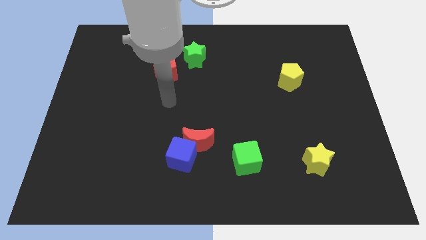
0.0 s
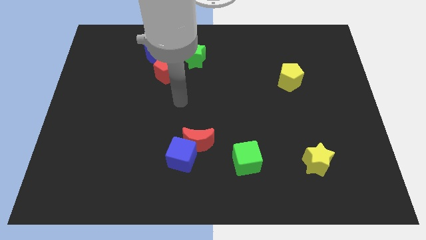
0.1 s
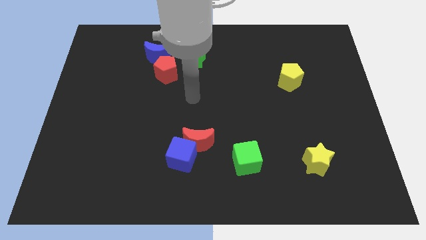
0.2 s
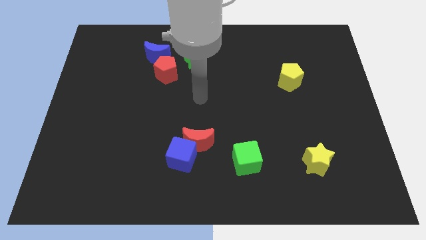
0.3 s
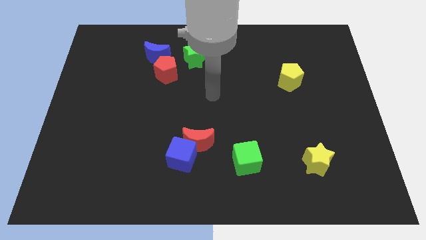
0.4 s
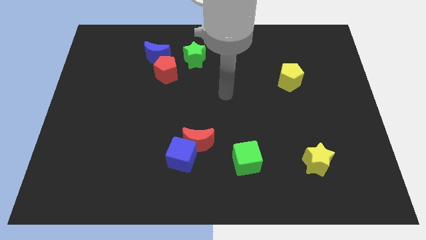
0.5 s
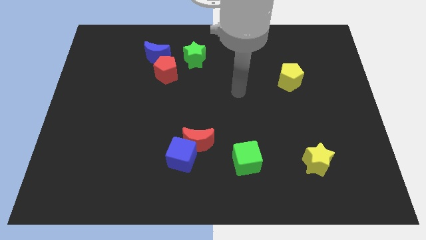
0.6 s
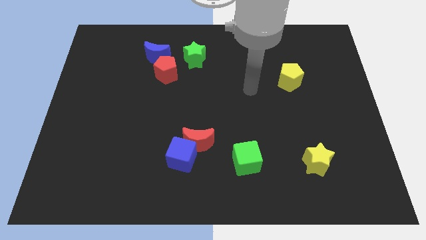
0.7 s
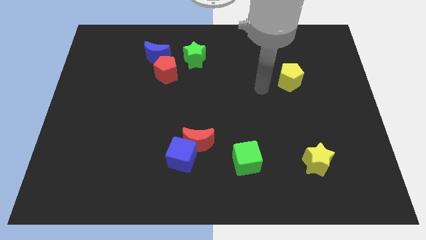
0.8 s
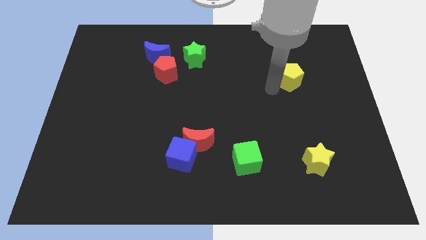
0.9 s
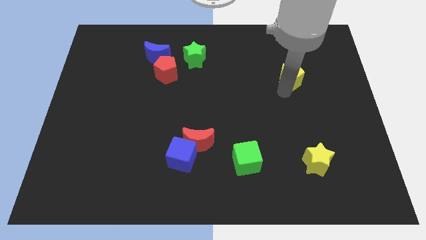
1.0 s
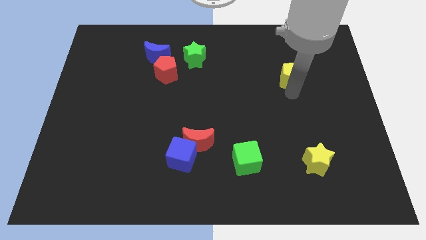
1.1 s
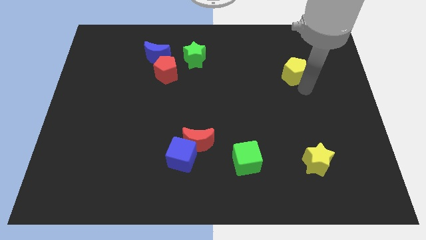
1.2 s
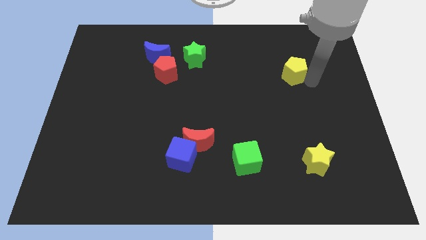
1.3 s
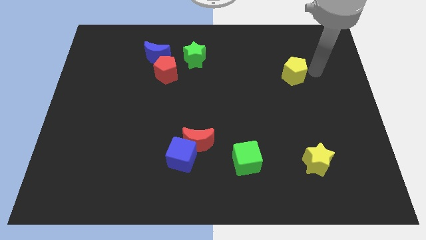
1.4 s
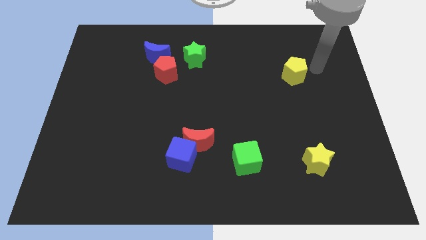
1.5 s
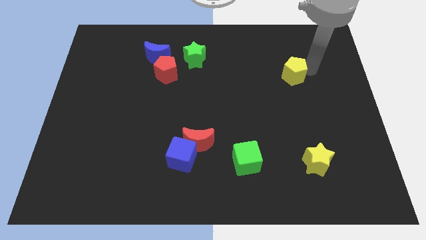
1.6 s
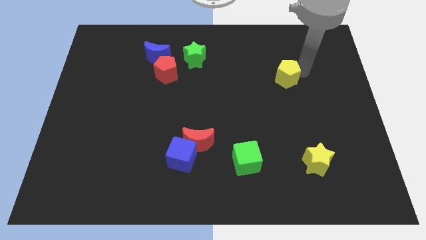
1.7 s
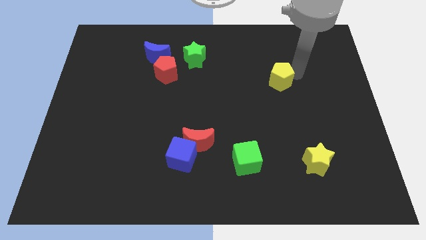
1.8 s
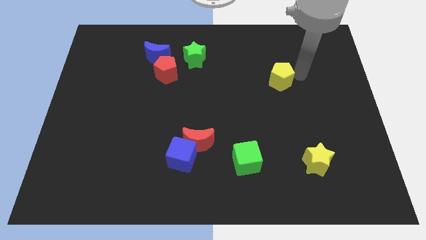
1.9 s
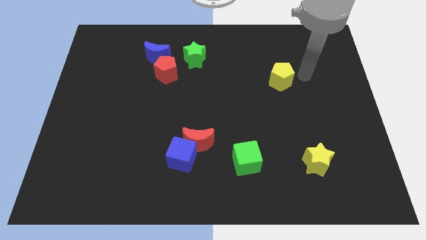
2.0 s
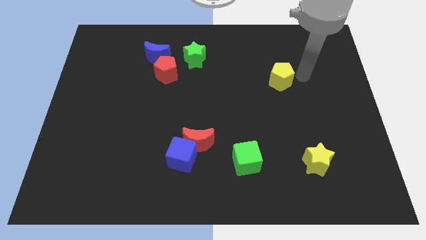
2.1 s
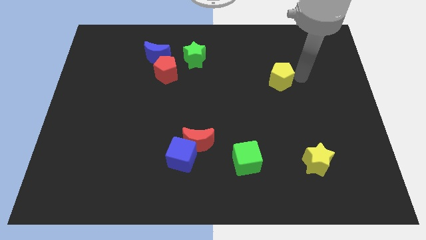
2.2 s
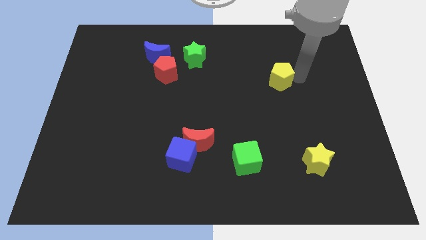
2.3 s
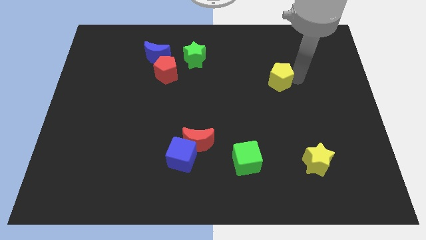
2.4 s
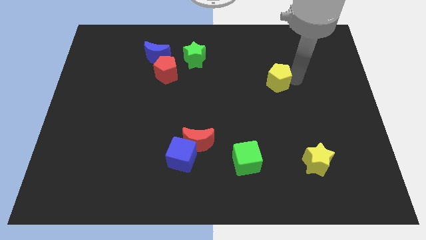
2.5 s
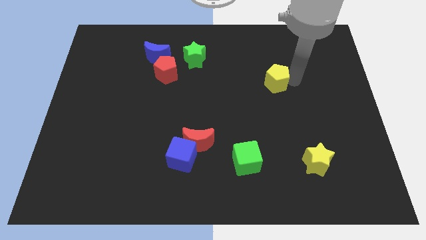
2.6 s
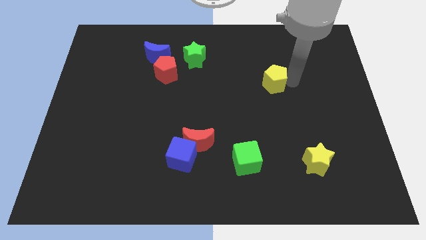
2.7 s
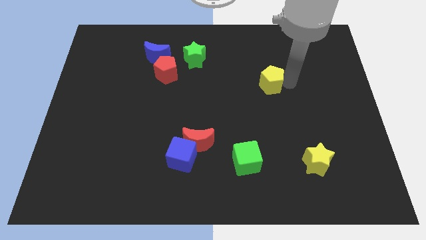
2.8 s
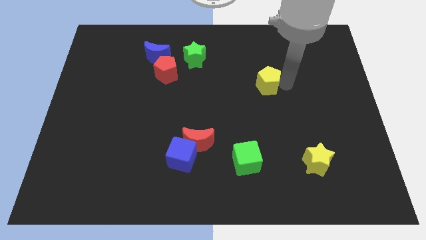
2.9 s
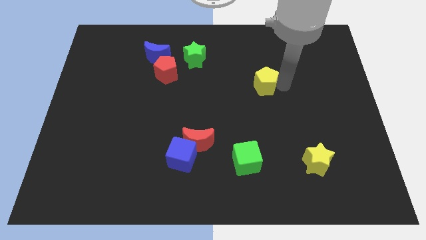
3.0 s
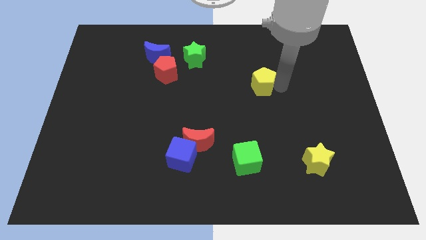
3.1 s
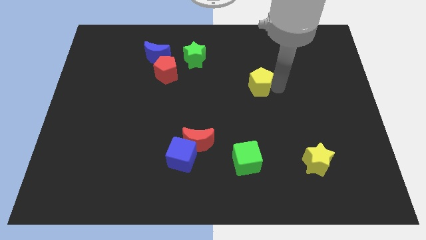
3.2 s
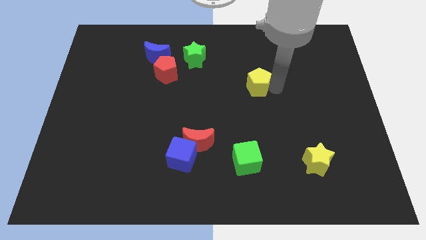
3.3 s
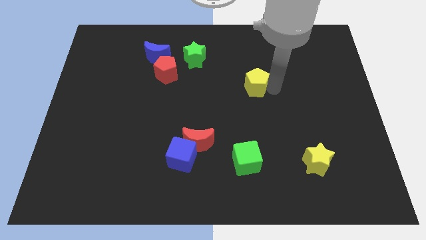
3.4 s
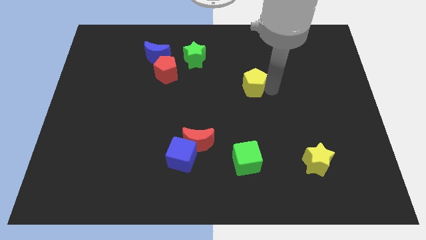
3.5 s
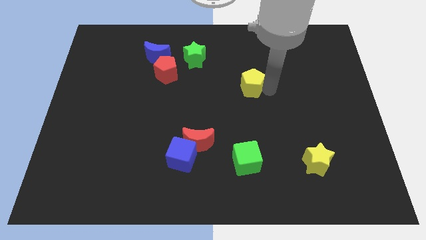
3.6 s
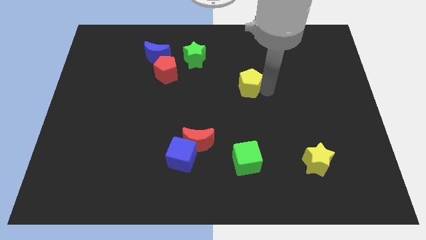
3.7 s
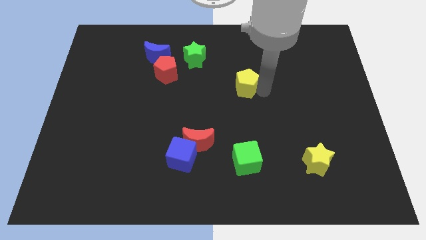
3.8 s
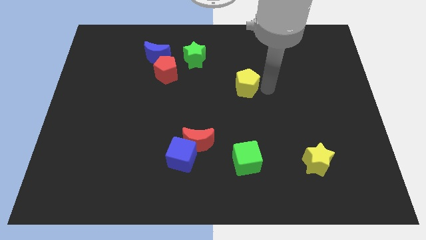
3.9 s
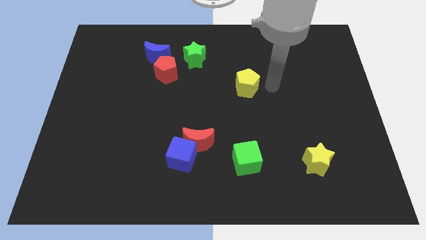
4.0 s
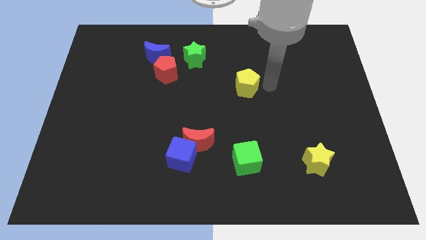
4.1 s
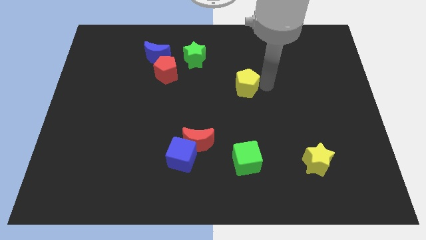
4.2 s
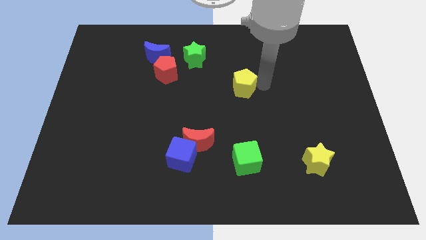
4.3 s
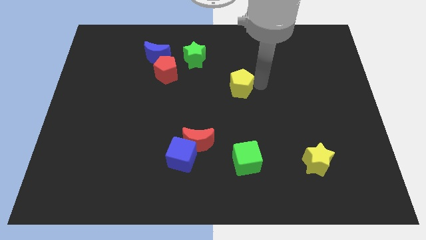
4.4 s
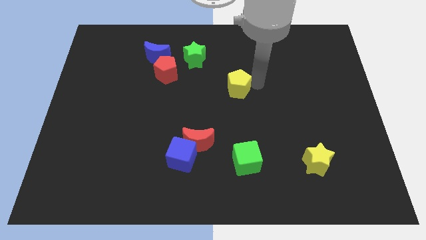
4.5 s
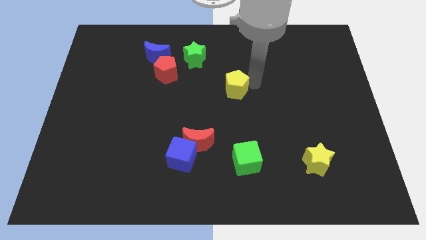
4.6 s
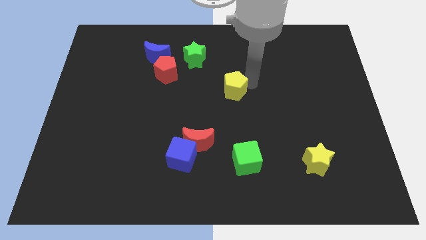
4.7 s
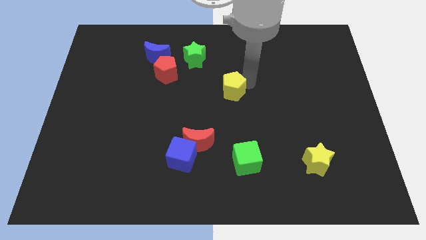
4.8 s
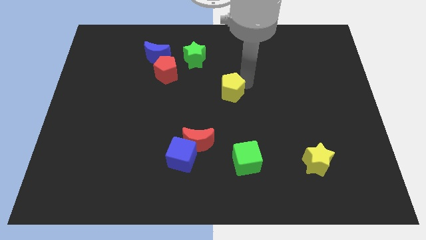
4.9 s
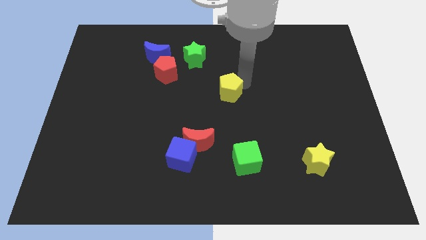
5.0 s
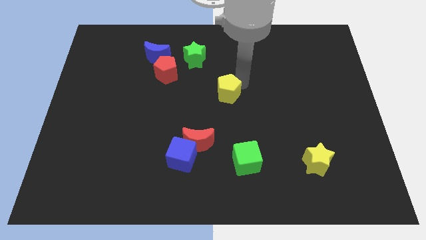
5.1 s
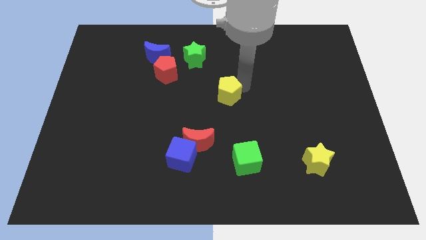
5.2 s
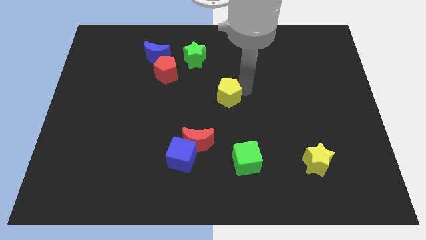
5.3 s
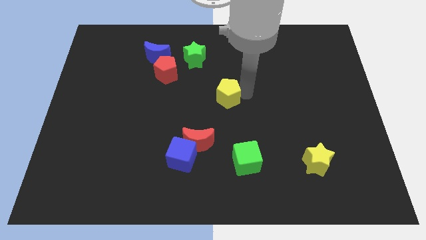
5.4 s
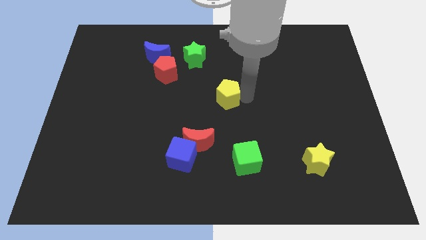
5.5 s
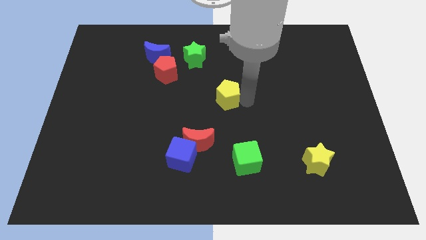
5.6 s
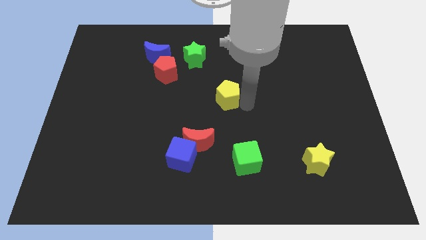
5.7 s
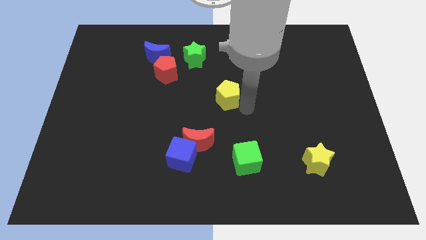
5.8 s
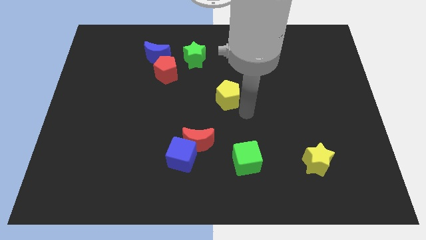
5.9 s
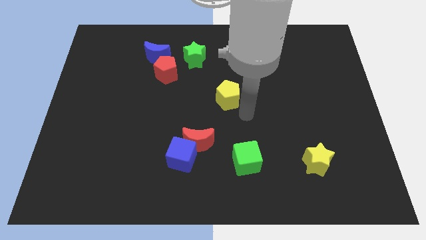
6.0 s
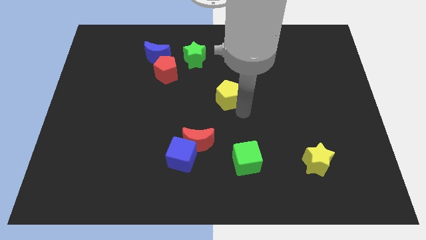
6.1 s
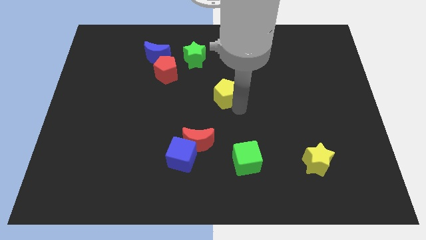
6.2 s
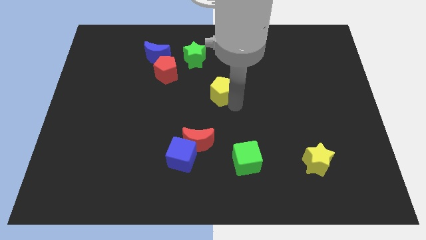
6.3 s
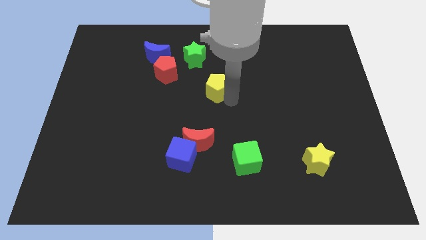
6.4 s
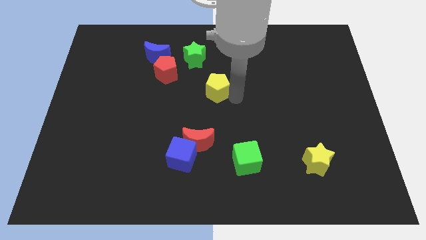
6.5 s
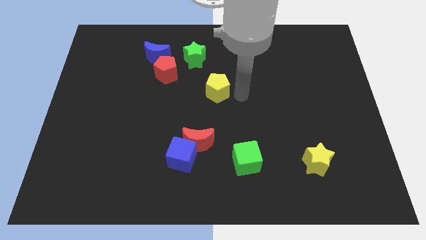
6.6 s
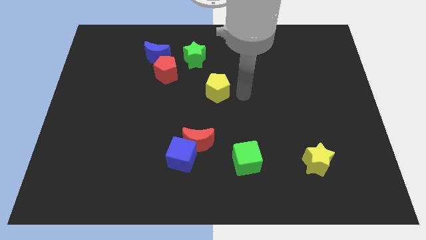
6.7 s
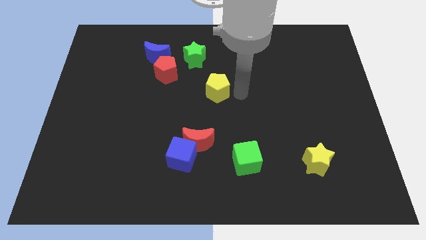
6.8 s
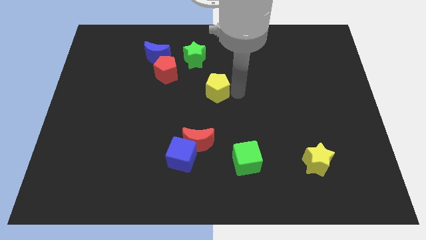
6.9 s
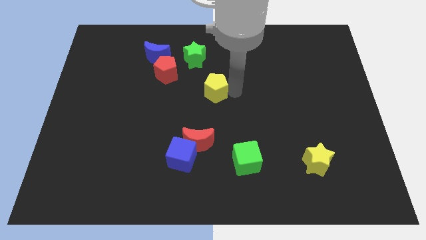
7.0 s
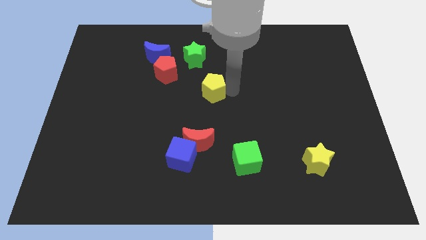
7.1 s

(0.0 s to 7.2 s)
put the yellow pentagon below the green star
